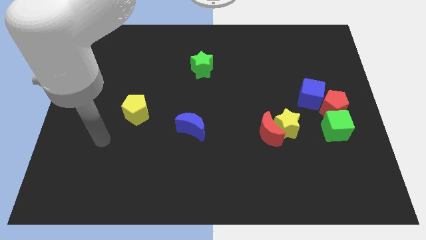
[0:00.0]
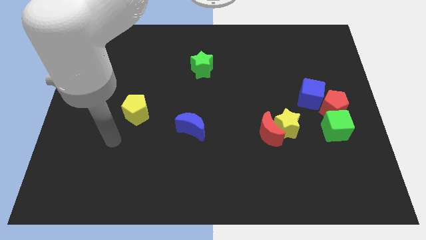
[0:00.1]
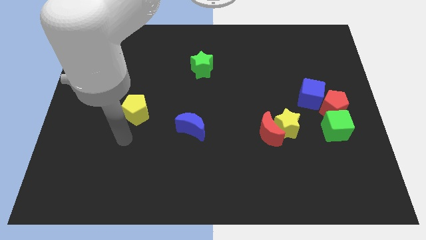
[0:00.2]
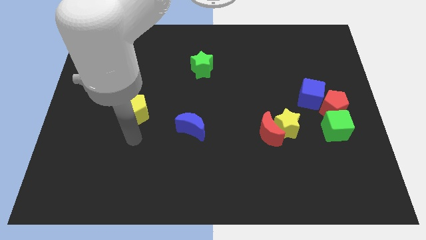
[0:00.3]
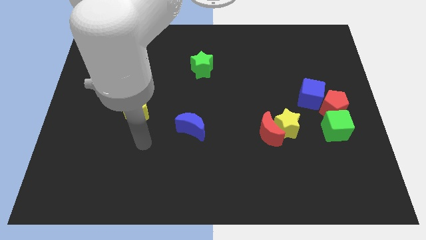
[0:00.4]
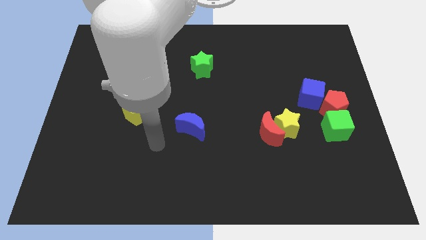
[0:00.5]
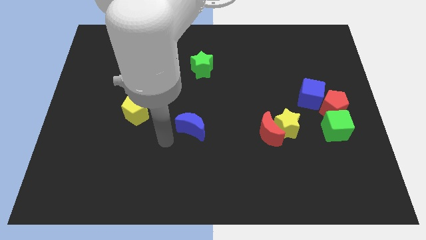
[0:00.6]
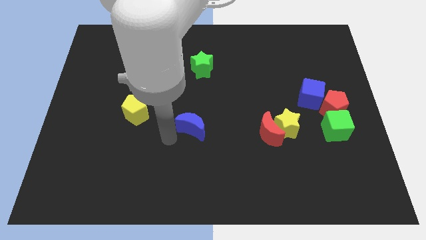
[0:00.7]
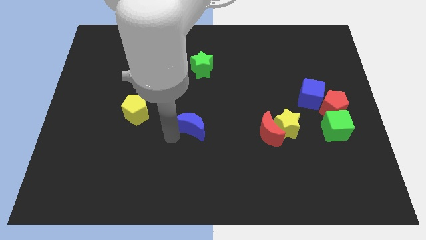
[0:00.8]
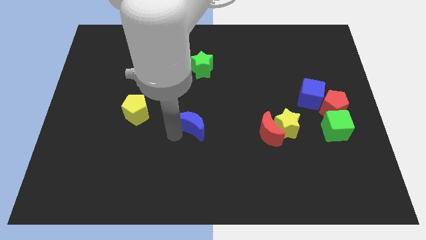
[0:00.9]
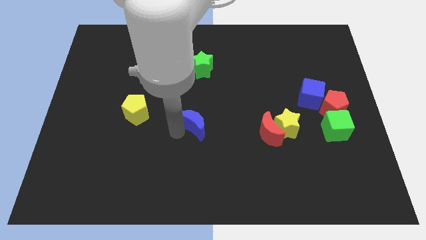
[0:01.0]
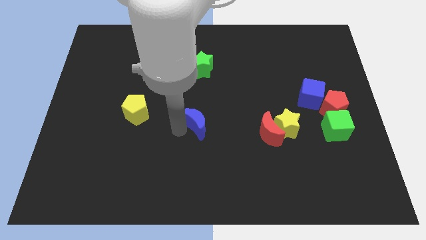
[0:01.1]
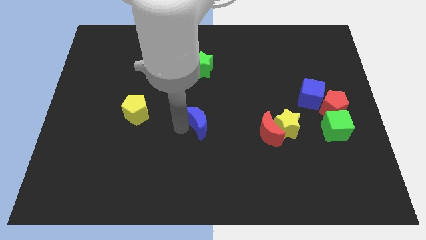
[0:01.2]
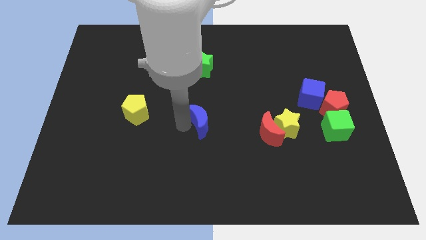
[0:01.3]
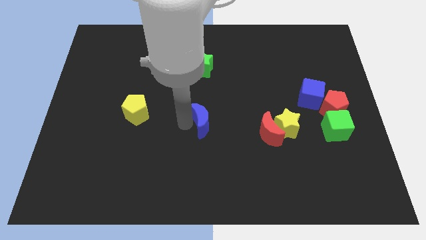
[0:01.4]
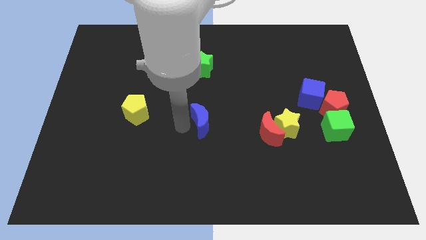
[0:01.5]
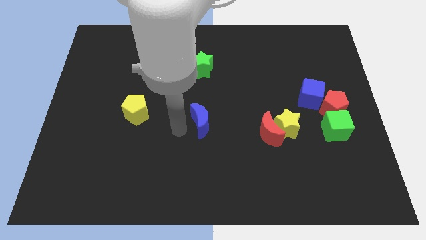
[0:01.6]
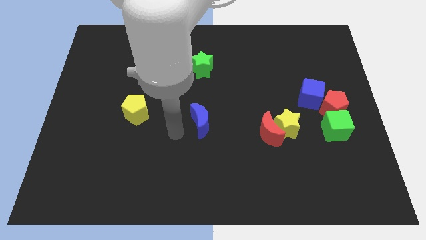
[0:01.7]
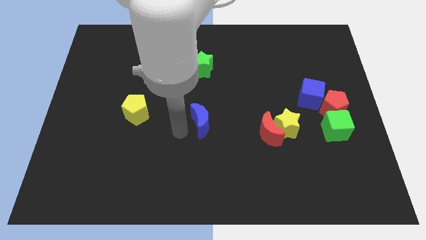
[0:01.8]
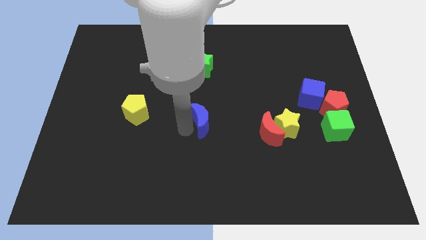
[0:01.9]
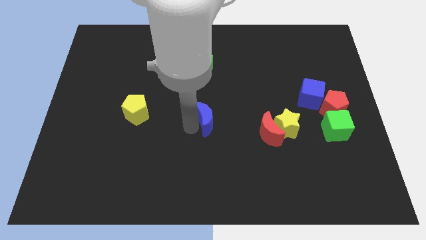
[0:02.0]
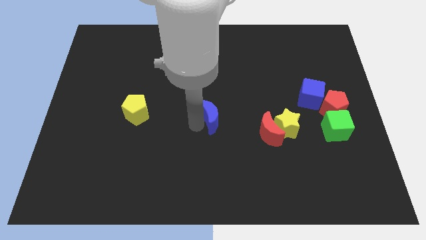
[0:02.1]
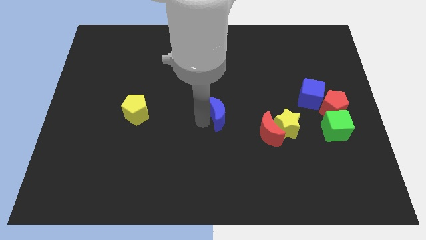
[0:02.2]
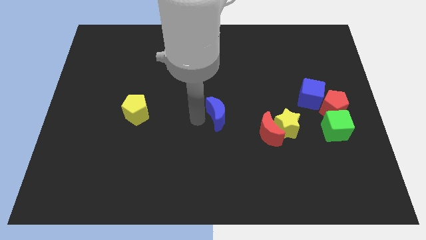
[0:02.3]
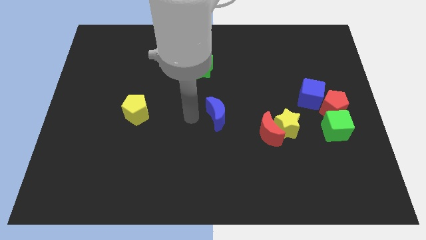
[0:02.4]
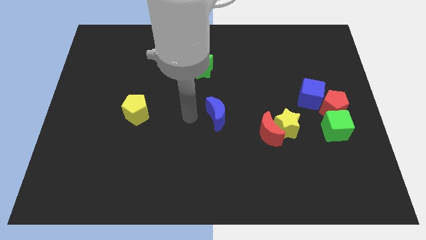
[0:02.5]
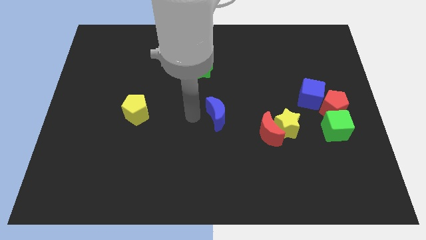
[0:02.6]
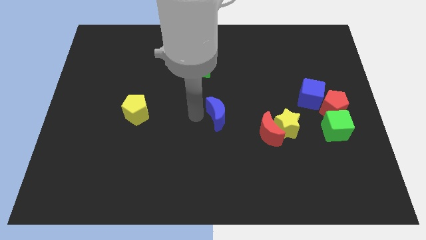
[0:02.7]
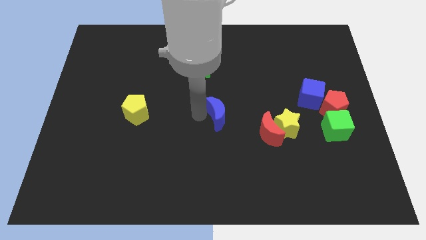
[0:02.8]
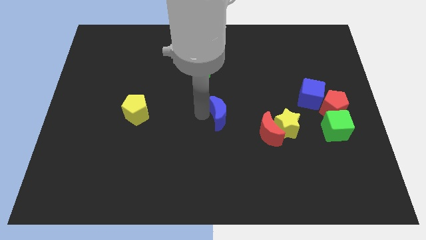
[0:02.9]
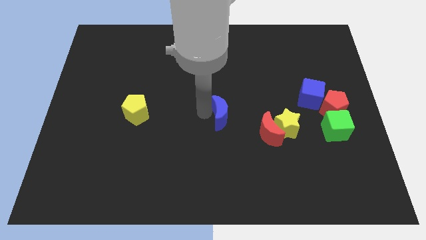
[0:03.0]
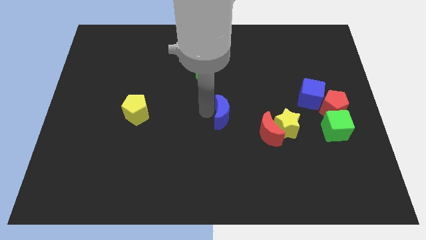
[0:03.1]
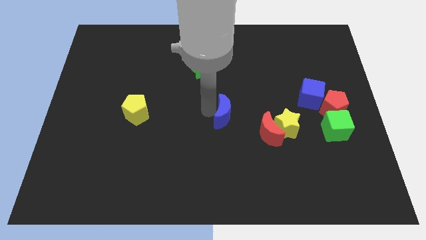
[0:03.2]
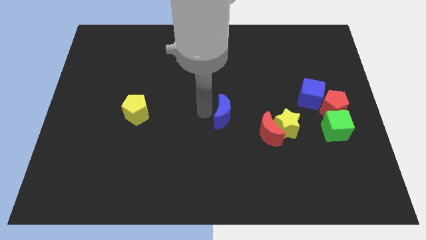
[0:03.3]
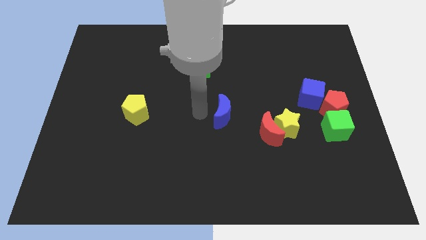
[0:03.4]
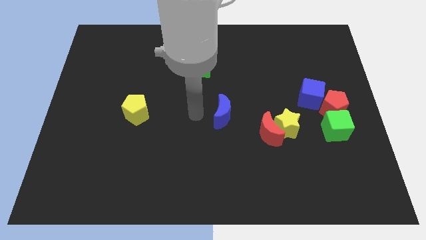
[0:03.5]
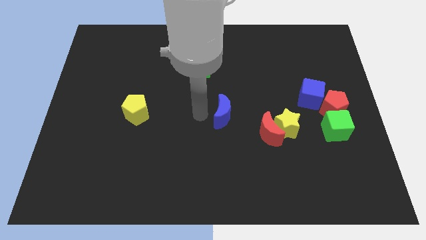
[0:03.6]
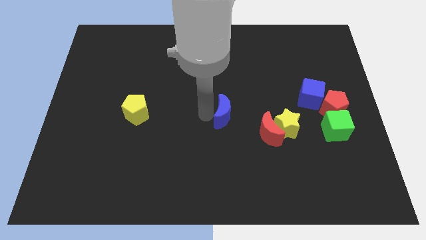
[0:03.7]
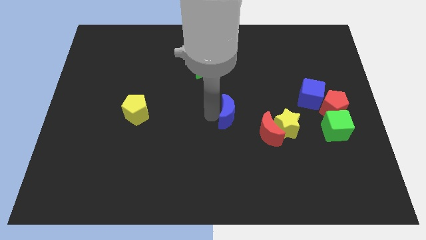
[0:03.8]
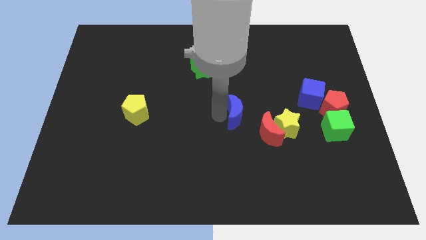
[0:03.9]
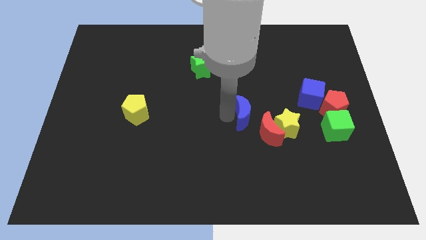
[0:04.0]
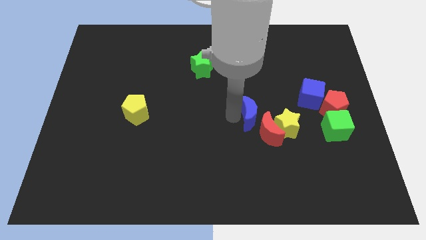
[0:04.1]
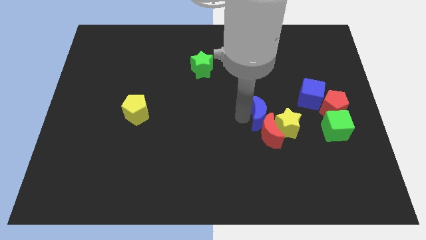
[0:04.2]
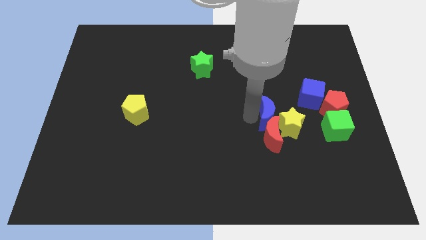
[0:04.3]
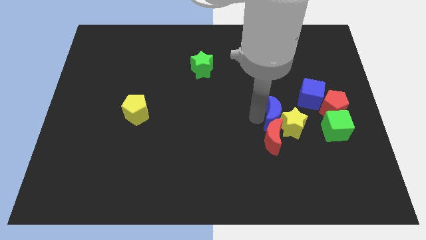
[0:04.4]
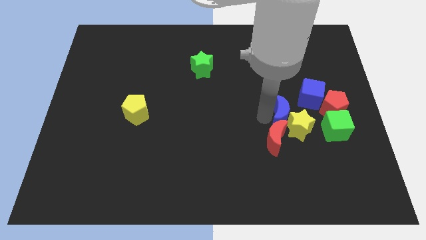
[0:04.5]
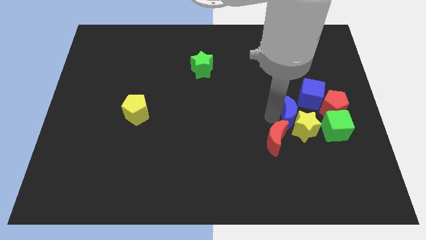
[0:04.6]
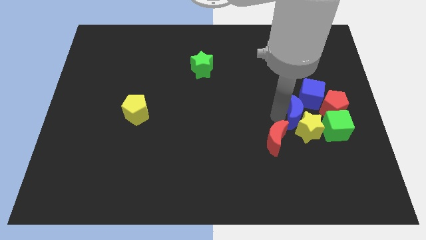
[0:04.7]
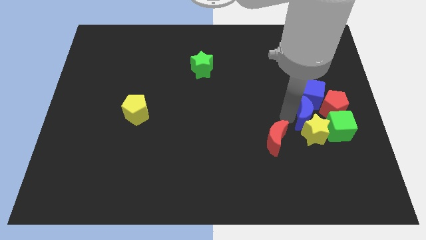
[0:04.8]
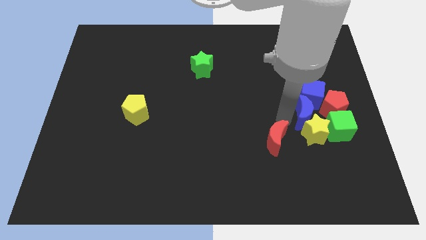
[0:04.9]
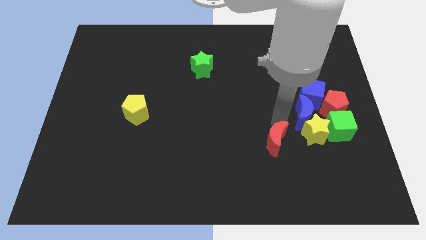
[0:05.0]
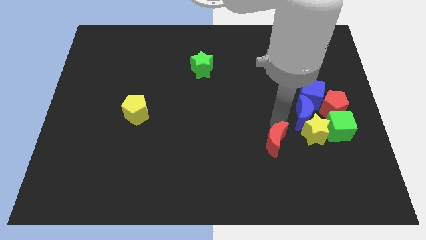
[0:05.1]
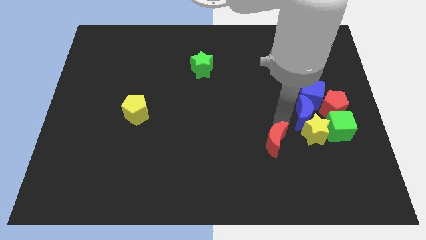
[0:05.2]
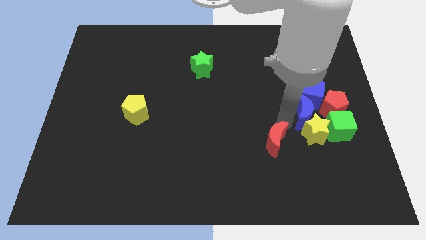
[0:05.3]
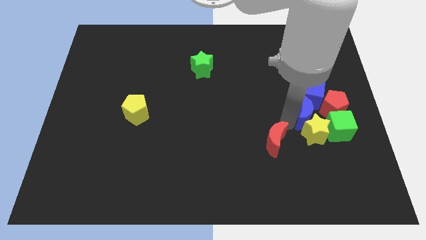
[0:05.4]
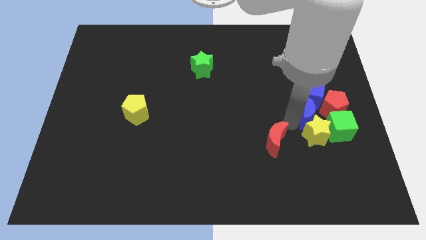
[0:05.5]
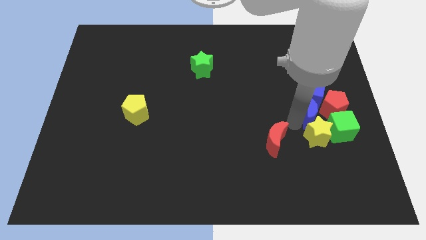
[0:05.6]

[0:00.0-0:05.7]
push the blue moon towards the red pentagon
